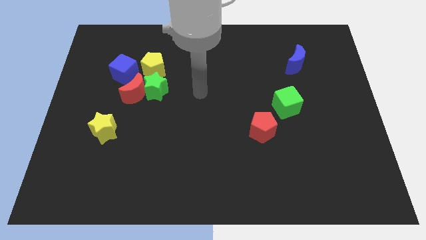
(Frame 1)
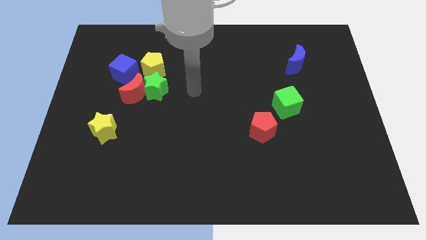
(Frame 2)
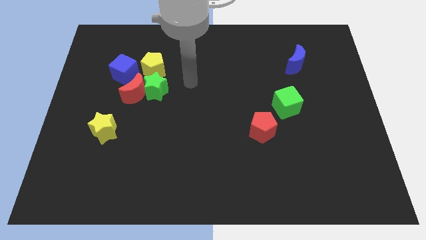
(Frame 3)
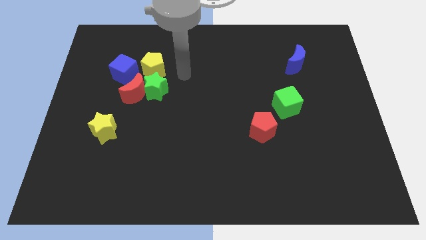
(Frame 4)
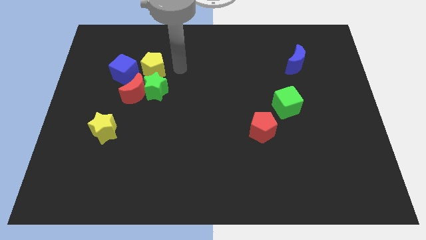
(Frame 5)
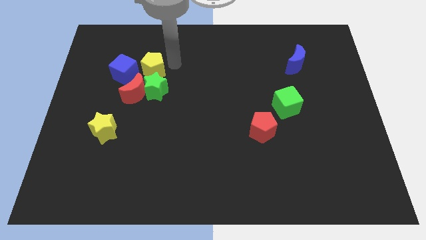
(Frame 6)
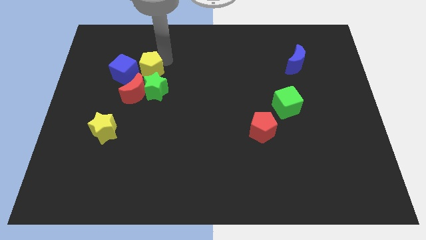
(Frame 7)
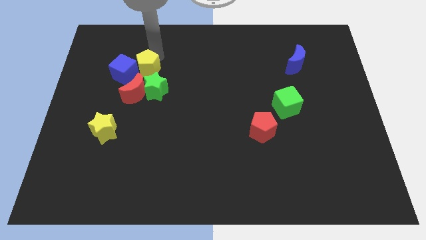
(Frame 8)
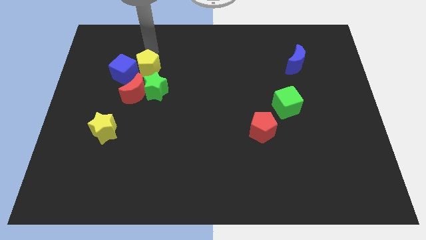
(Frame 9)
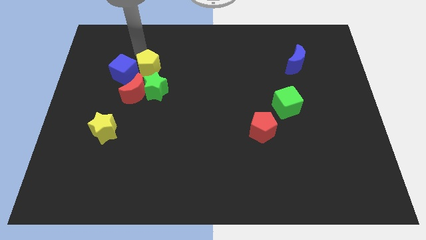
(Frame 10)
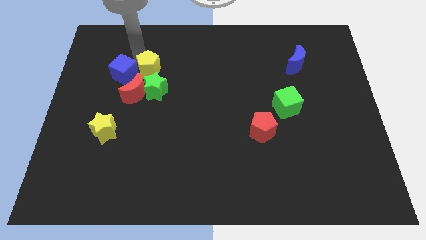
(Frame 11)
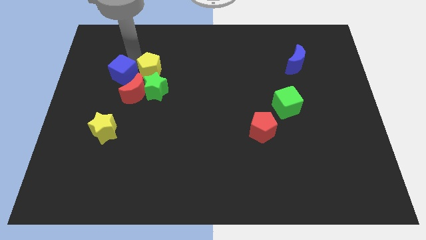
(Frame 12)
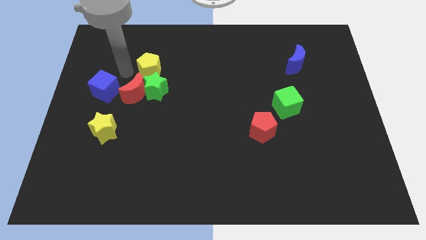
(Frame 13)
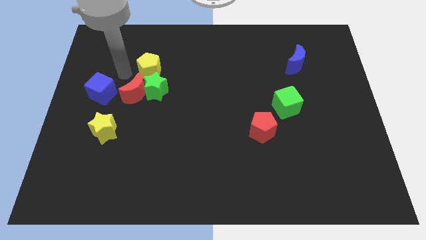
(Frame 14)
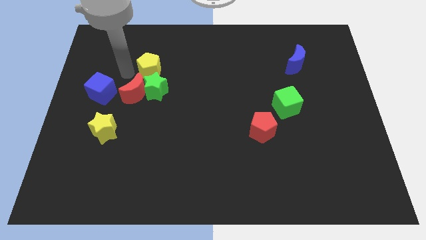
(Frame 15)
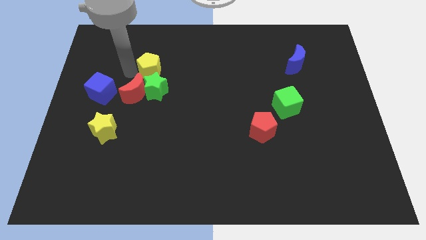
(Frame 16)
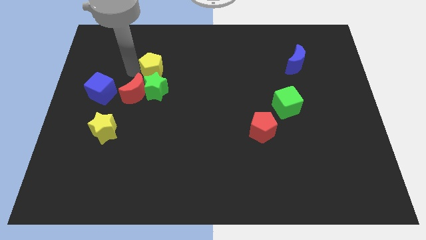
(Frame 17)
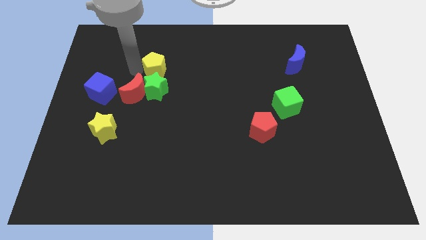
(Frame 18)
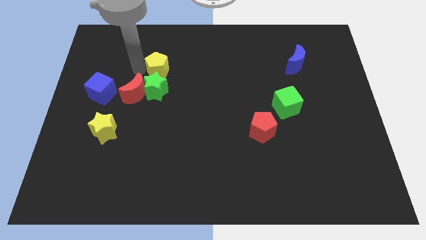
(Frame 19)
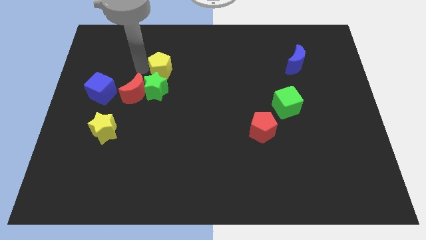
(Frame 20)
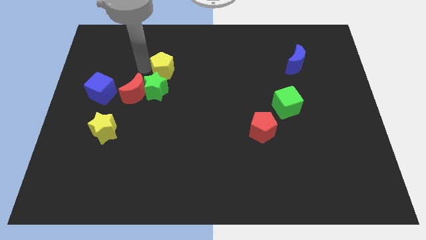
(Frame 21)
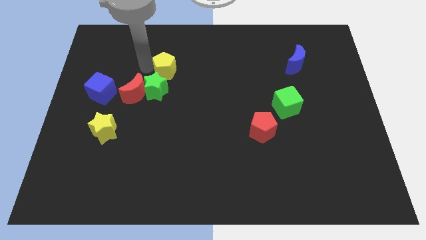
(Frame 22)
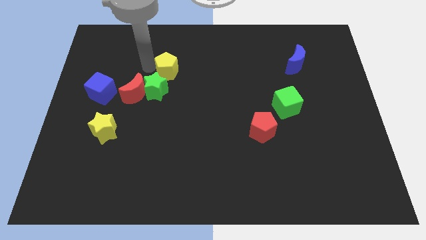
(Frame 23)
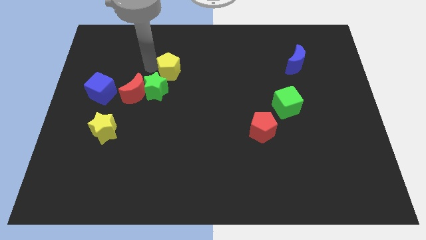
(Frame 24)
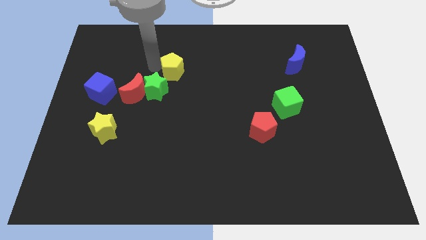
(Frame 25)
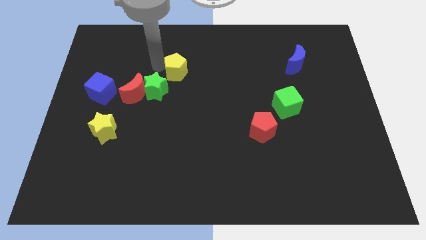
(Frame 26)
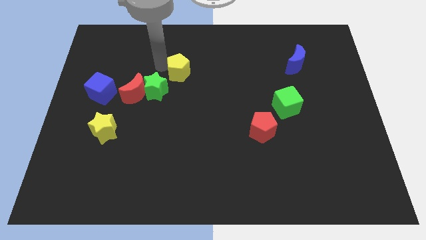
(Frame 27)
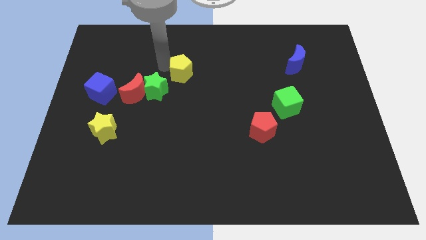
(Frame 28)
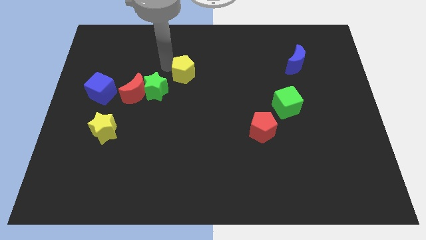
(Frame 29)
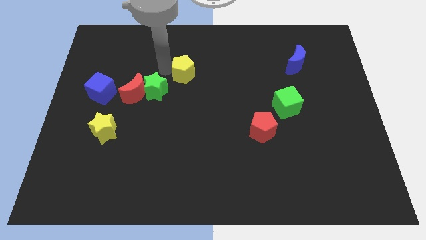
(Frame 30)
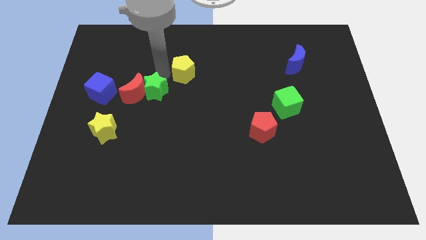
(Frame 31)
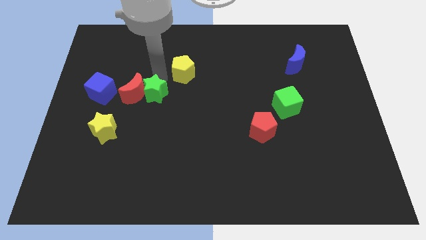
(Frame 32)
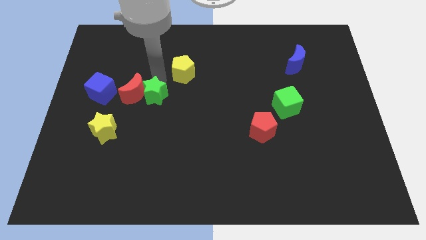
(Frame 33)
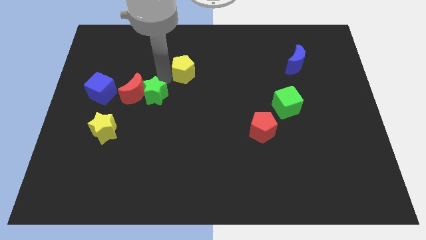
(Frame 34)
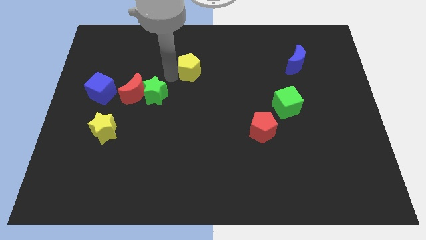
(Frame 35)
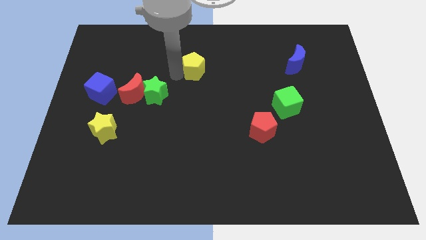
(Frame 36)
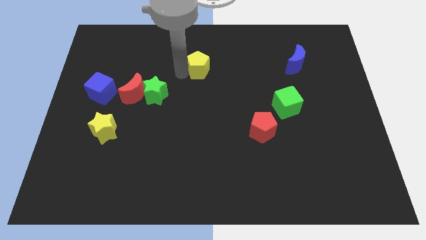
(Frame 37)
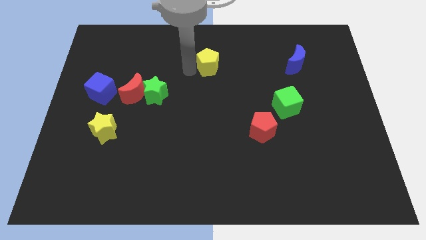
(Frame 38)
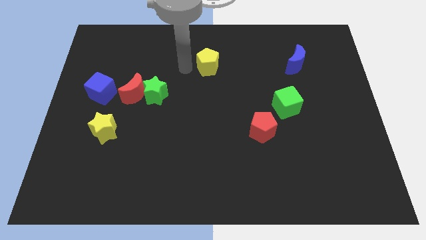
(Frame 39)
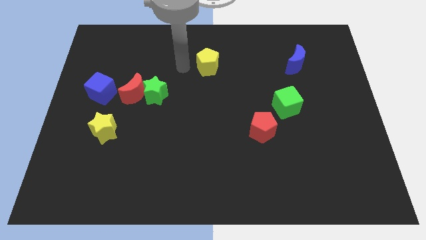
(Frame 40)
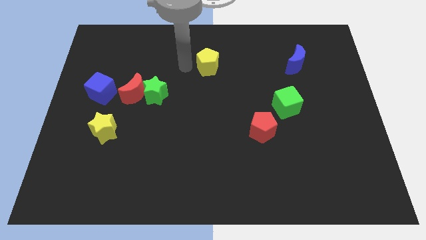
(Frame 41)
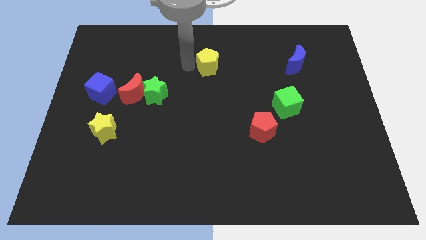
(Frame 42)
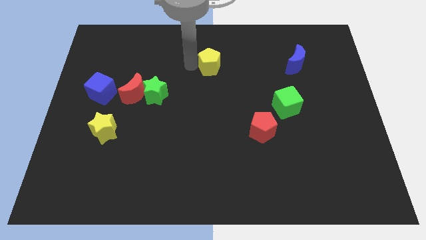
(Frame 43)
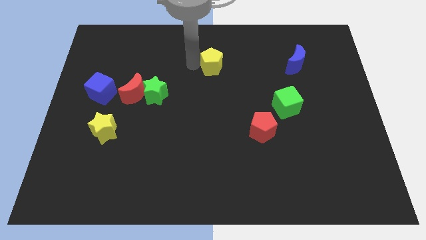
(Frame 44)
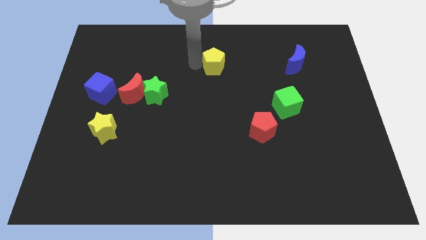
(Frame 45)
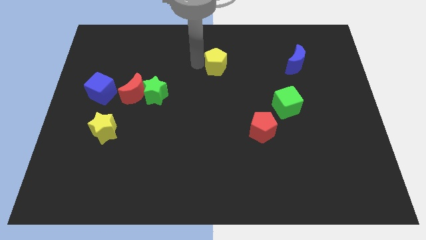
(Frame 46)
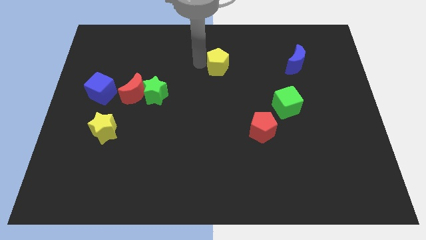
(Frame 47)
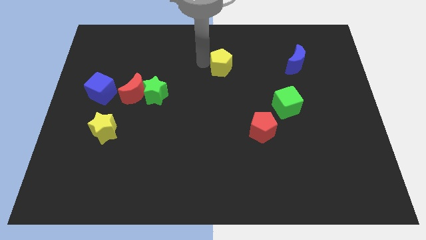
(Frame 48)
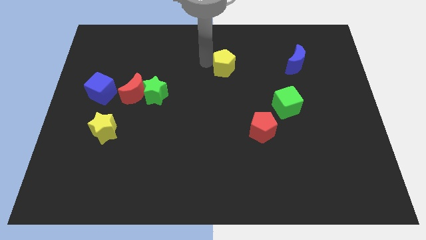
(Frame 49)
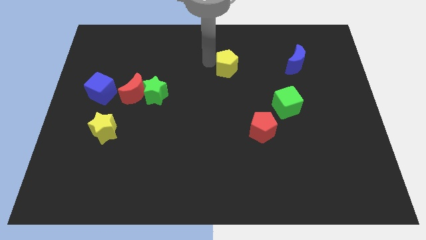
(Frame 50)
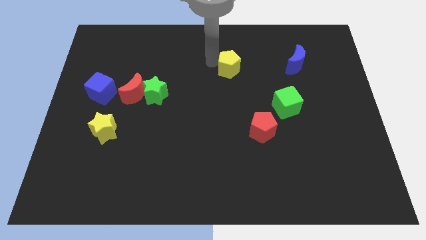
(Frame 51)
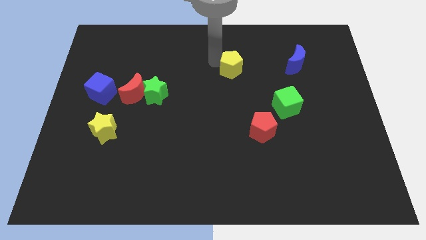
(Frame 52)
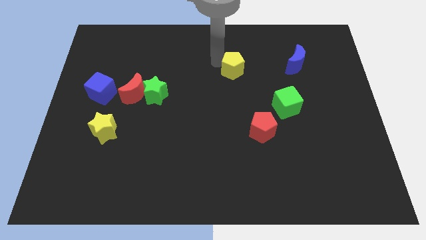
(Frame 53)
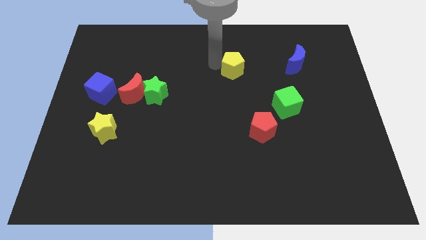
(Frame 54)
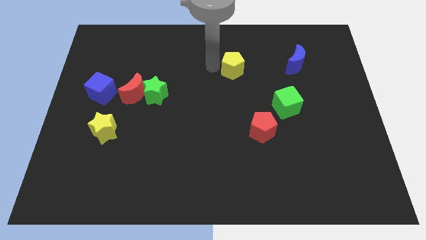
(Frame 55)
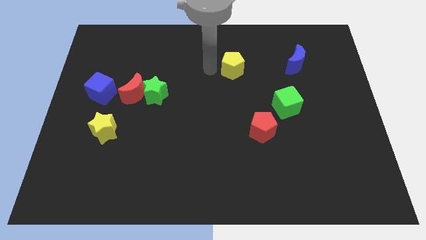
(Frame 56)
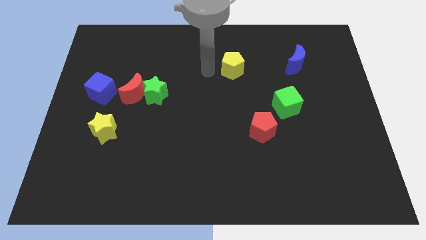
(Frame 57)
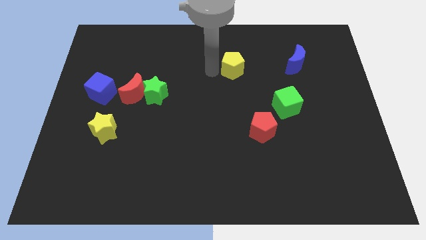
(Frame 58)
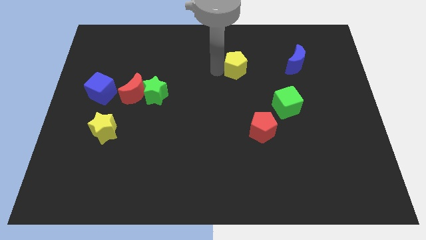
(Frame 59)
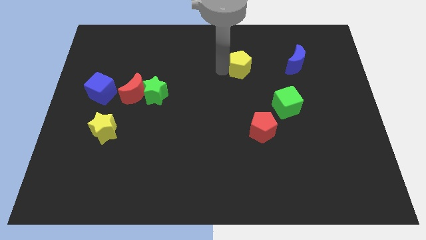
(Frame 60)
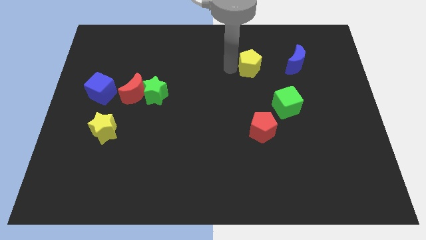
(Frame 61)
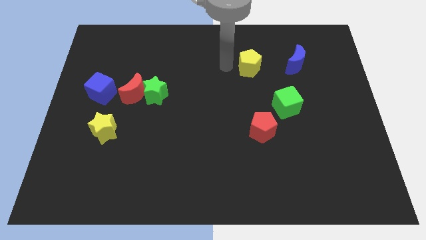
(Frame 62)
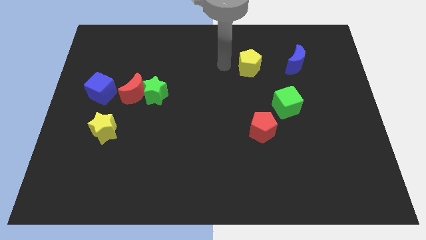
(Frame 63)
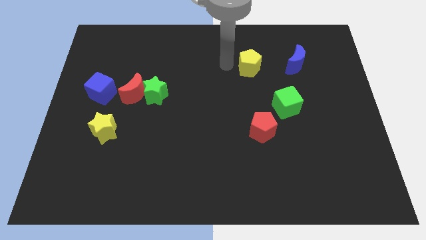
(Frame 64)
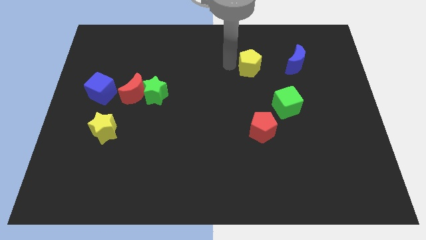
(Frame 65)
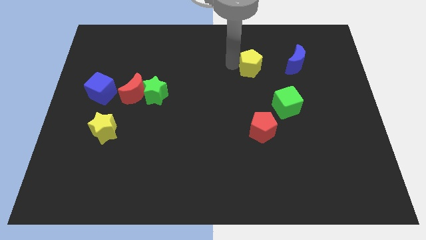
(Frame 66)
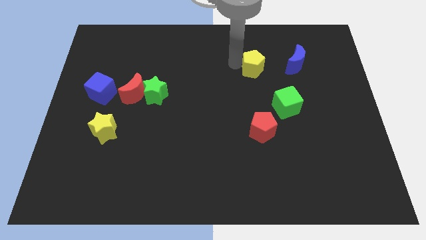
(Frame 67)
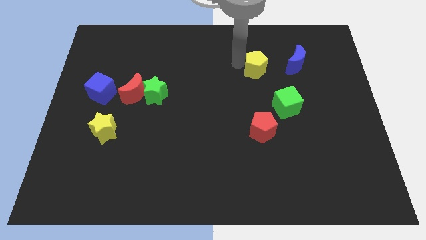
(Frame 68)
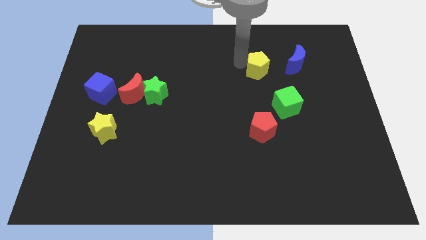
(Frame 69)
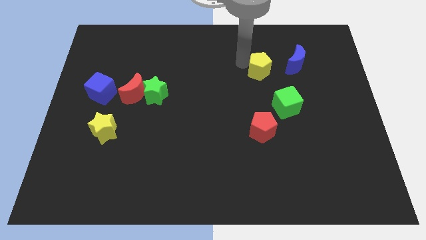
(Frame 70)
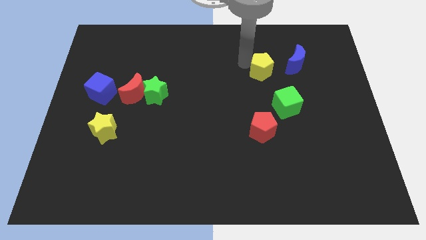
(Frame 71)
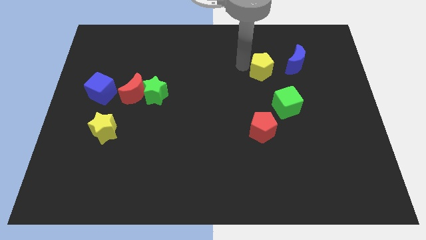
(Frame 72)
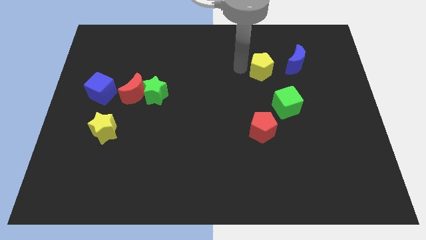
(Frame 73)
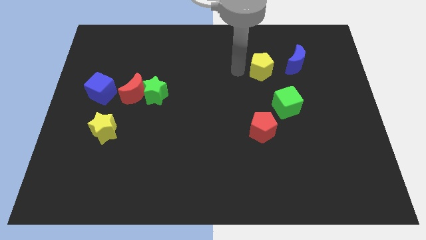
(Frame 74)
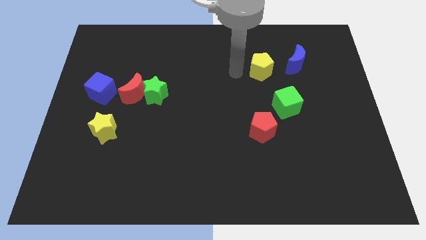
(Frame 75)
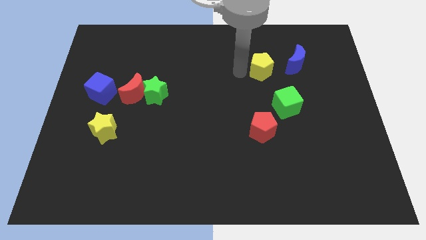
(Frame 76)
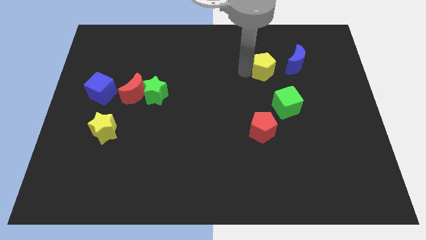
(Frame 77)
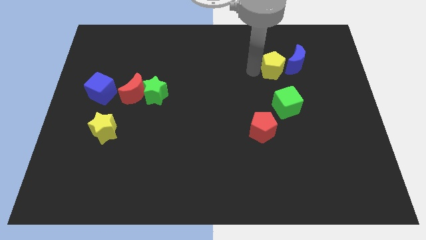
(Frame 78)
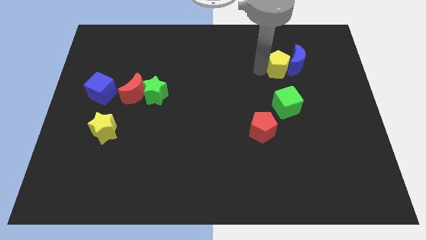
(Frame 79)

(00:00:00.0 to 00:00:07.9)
put the yellow pentagon towards the blue moon
